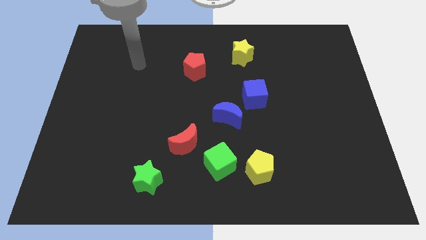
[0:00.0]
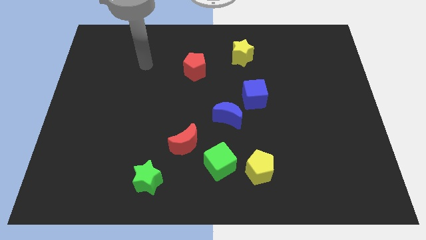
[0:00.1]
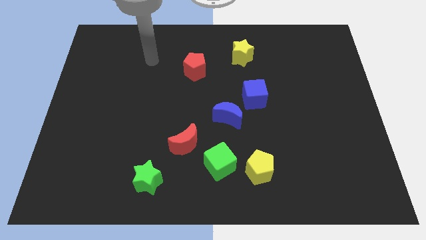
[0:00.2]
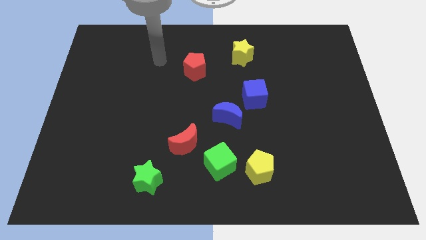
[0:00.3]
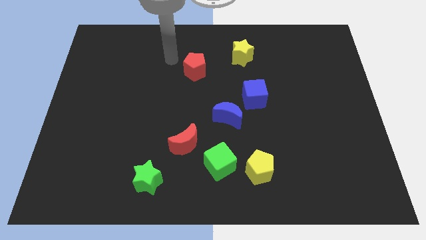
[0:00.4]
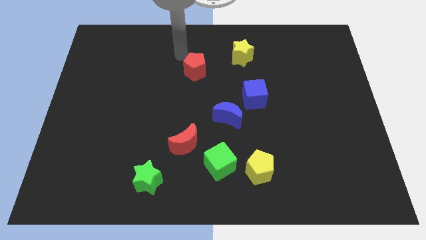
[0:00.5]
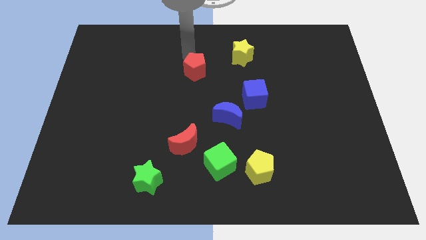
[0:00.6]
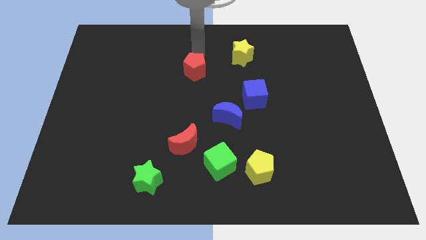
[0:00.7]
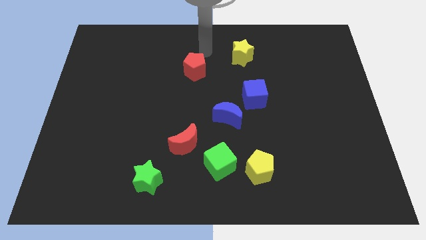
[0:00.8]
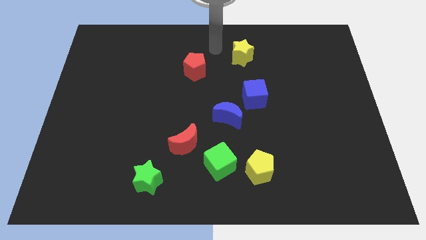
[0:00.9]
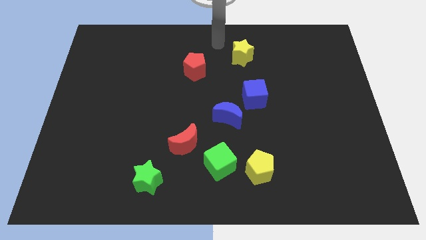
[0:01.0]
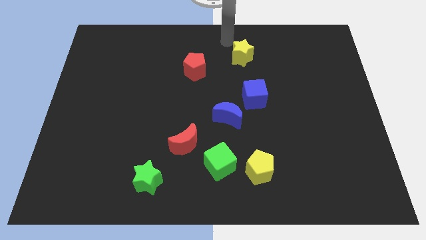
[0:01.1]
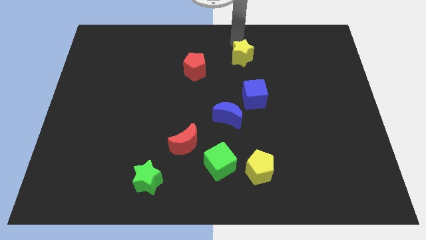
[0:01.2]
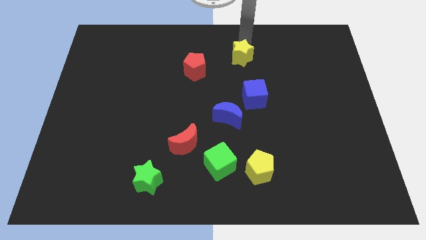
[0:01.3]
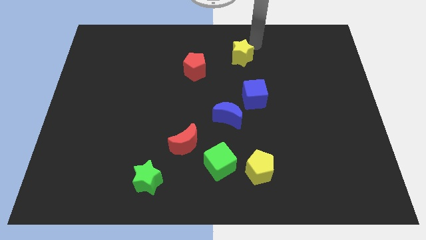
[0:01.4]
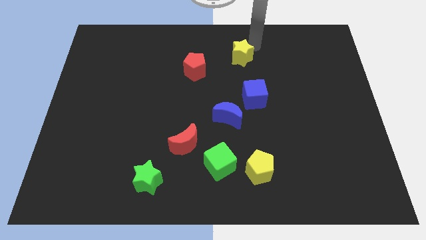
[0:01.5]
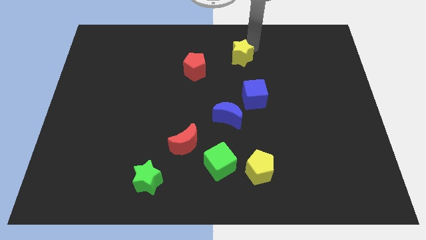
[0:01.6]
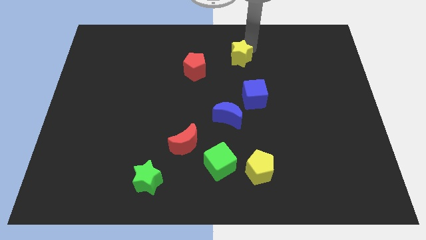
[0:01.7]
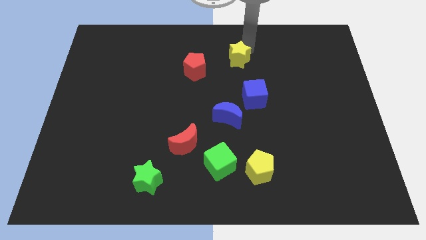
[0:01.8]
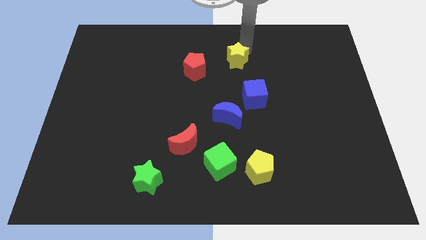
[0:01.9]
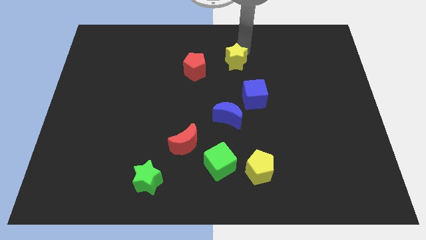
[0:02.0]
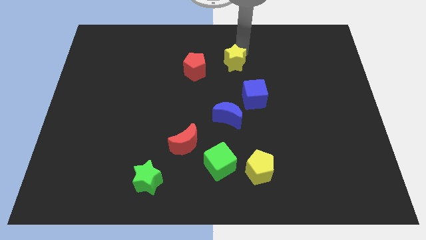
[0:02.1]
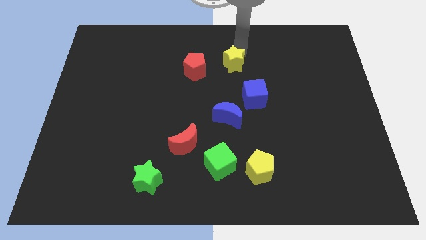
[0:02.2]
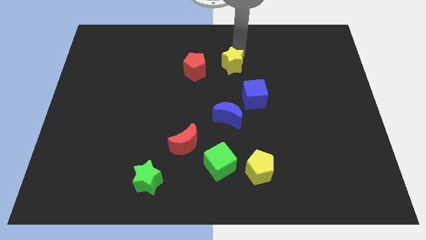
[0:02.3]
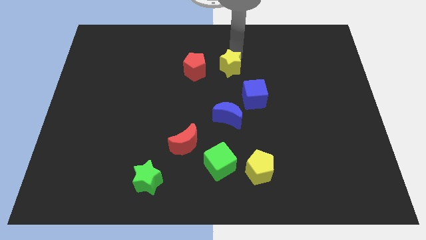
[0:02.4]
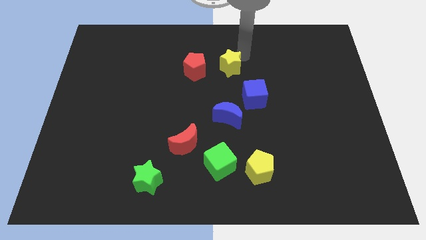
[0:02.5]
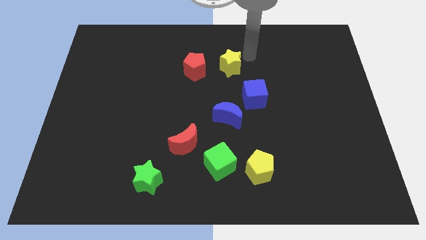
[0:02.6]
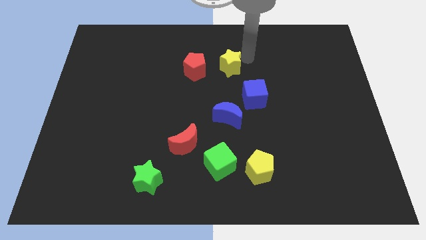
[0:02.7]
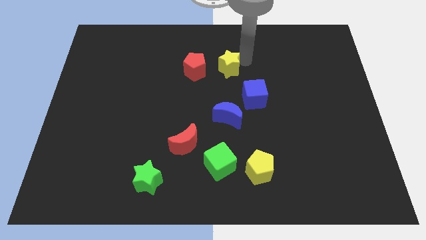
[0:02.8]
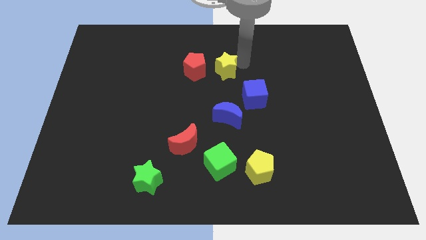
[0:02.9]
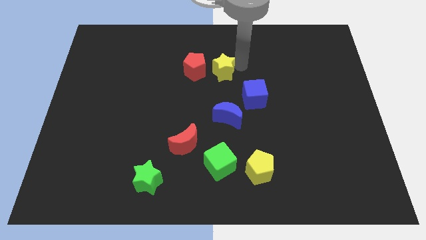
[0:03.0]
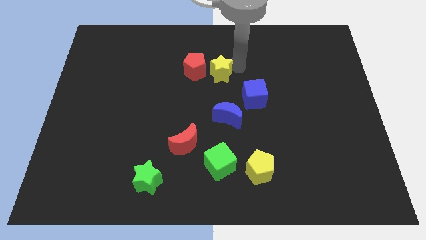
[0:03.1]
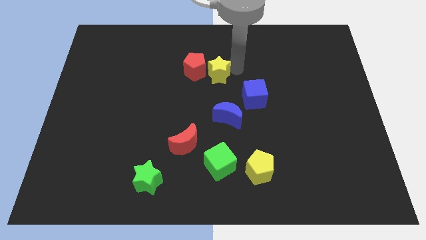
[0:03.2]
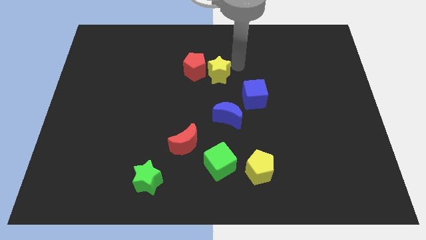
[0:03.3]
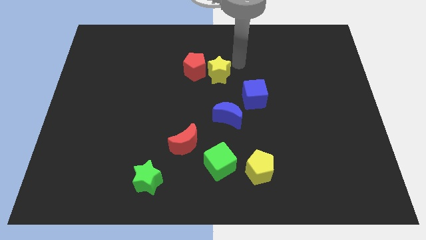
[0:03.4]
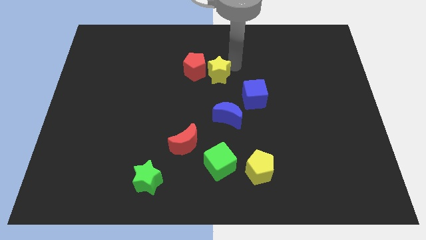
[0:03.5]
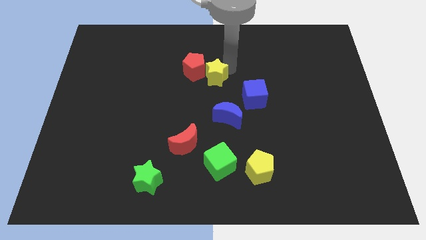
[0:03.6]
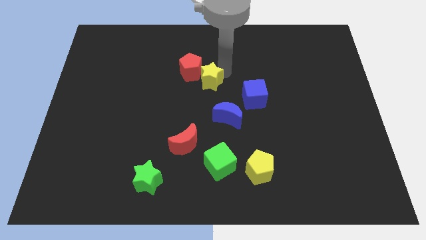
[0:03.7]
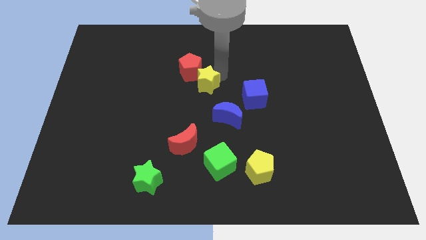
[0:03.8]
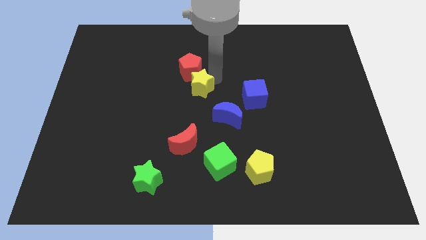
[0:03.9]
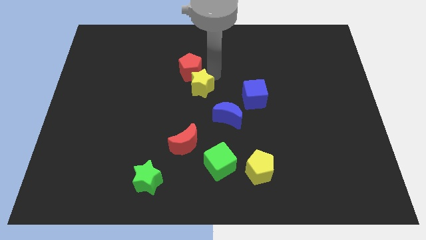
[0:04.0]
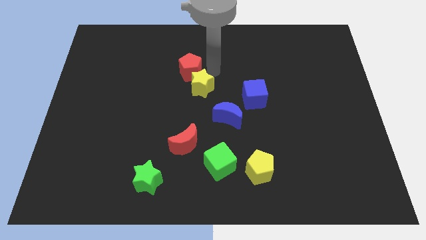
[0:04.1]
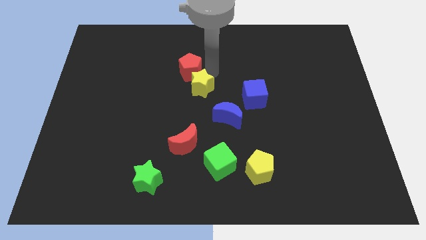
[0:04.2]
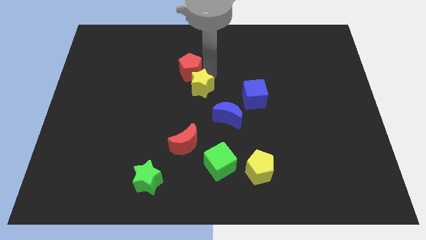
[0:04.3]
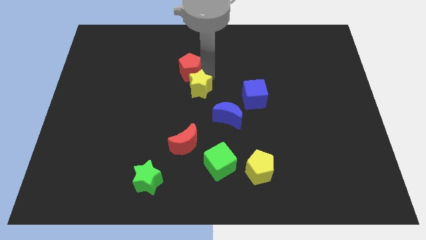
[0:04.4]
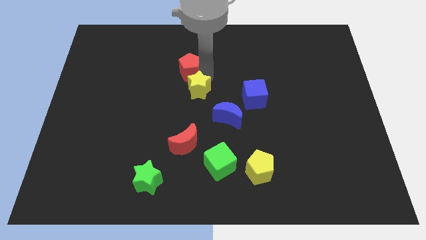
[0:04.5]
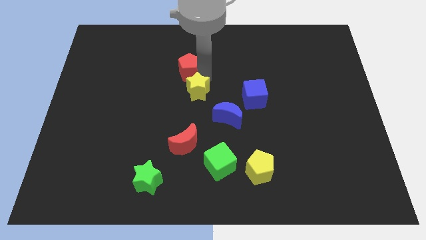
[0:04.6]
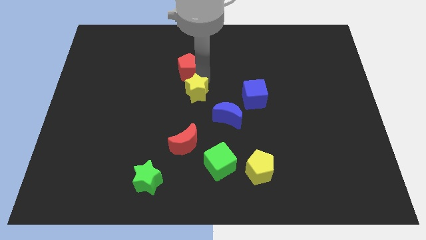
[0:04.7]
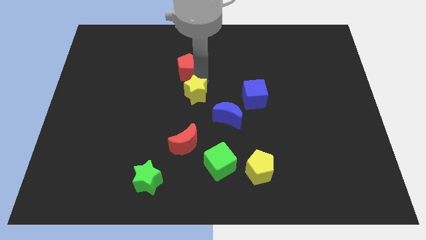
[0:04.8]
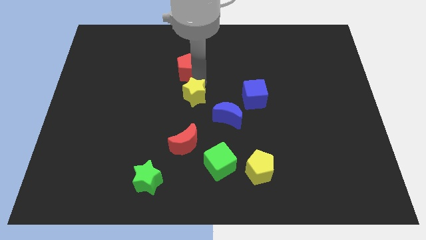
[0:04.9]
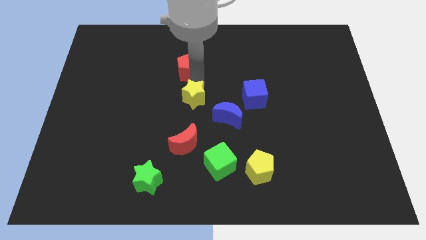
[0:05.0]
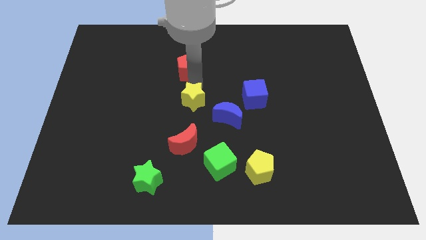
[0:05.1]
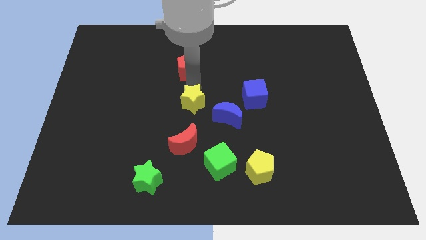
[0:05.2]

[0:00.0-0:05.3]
push the yellow star left of the blue moon

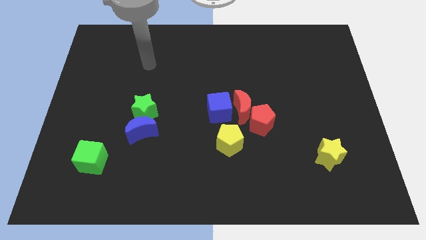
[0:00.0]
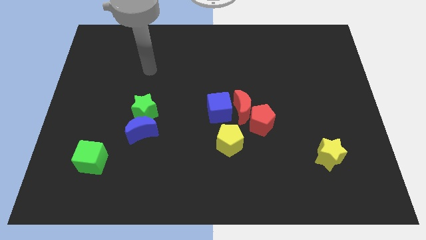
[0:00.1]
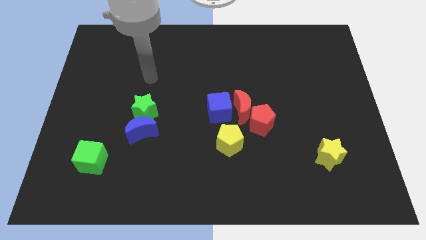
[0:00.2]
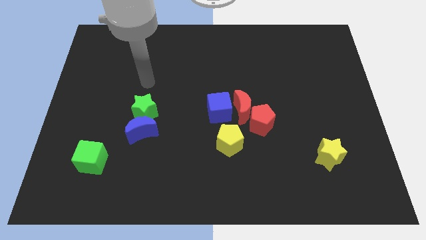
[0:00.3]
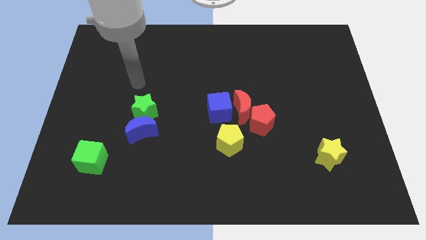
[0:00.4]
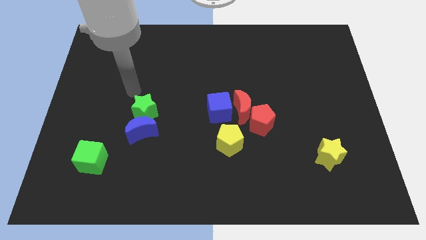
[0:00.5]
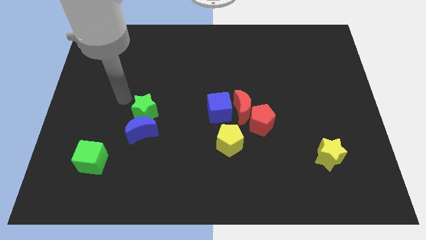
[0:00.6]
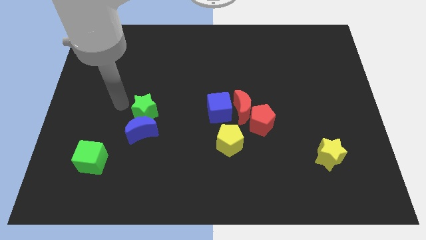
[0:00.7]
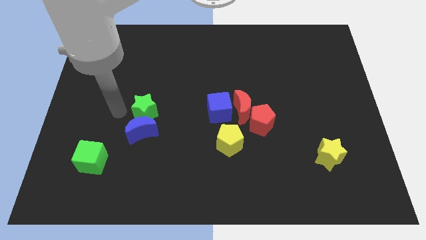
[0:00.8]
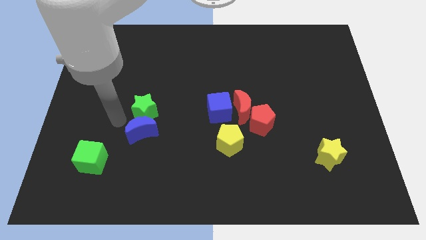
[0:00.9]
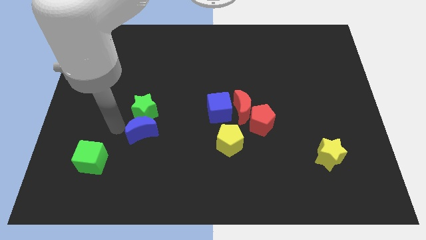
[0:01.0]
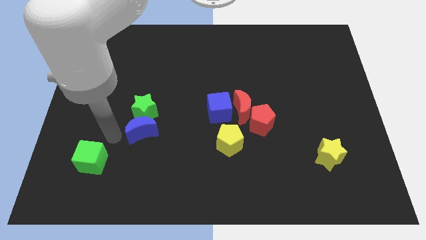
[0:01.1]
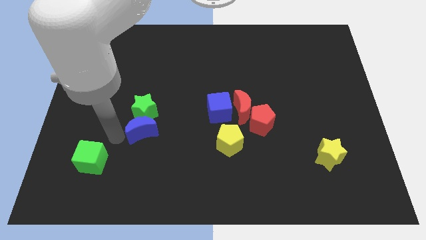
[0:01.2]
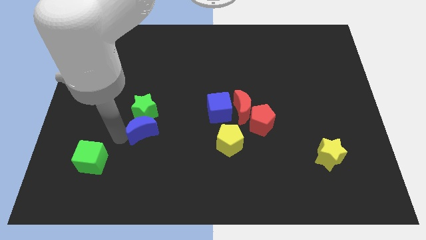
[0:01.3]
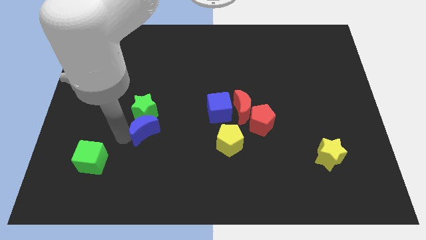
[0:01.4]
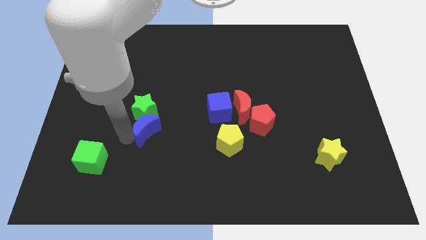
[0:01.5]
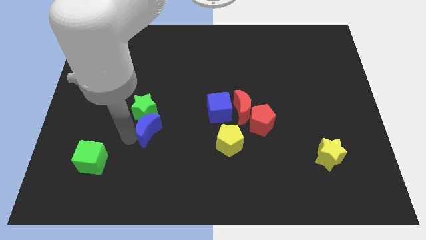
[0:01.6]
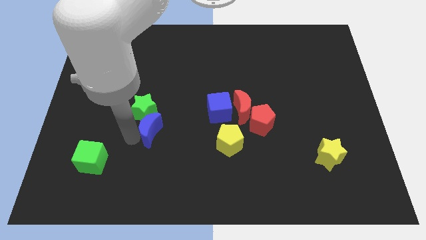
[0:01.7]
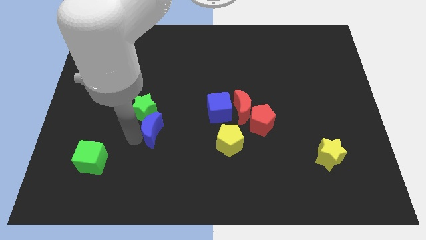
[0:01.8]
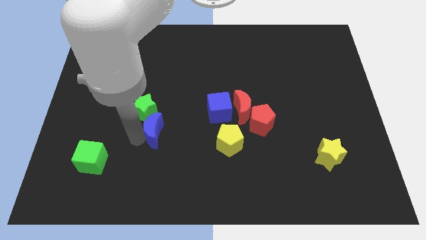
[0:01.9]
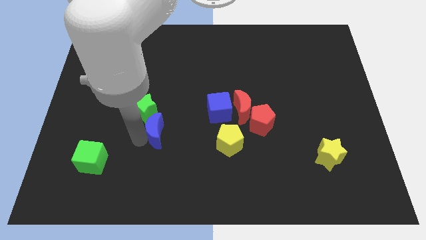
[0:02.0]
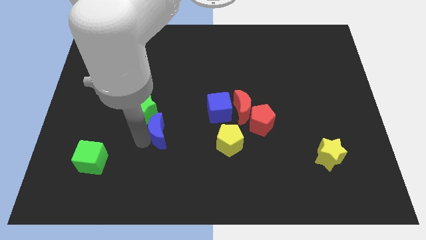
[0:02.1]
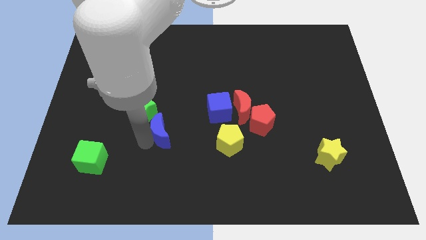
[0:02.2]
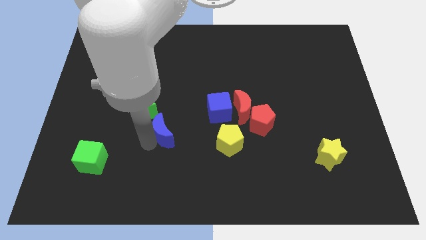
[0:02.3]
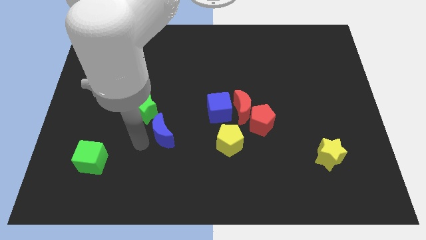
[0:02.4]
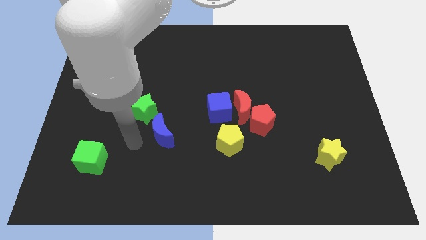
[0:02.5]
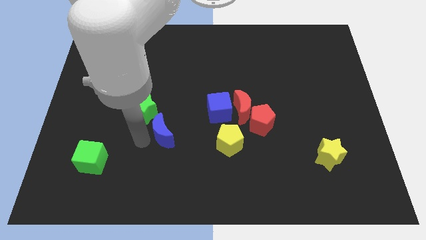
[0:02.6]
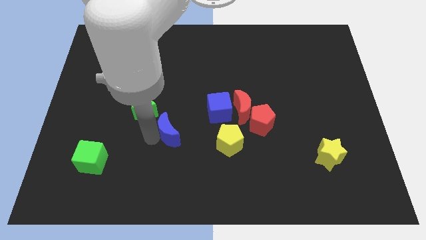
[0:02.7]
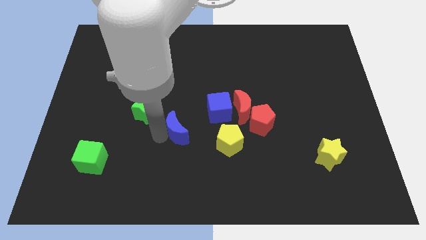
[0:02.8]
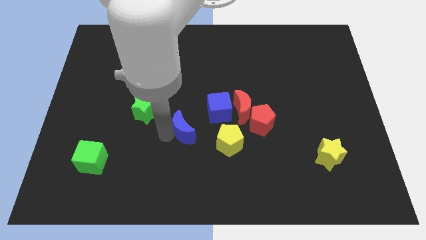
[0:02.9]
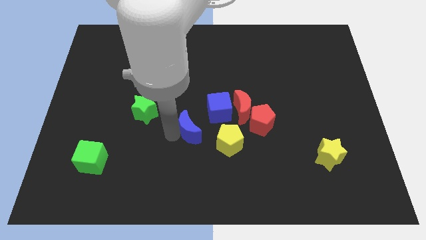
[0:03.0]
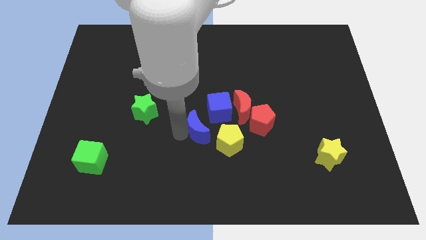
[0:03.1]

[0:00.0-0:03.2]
move the blue moon to the left of the red pentagon
